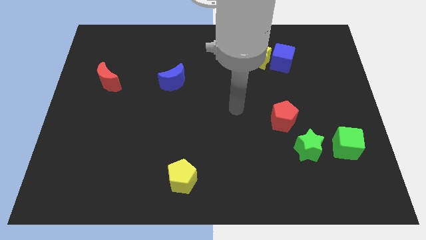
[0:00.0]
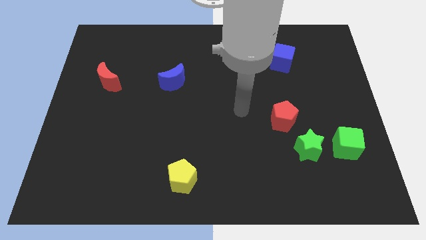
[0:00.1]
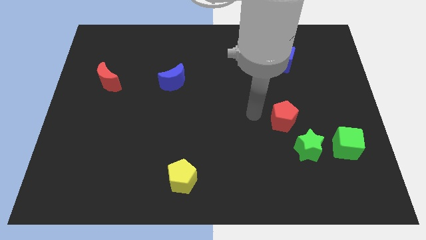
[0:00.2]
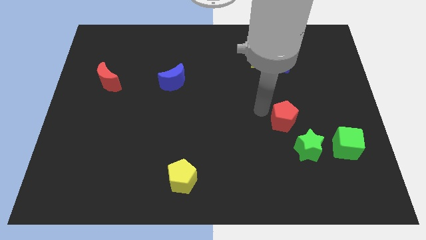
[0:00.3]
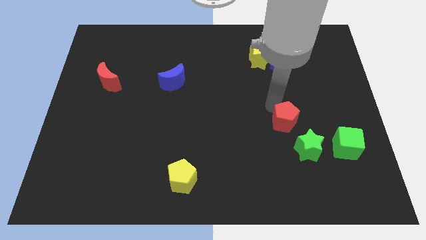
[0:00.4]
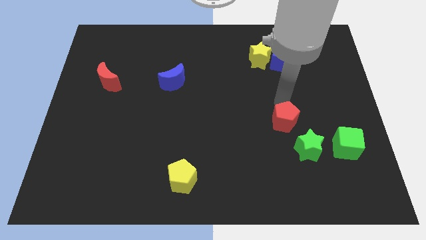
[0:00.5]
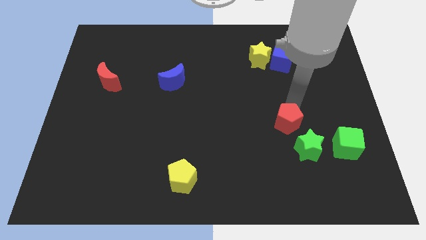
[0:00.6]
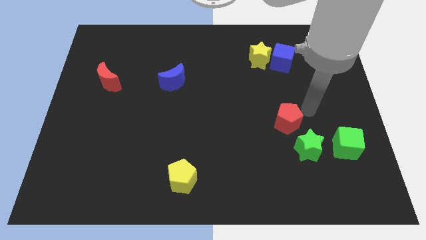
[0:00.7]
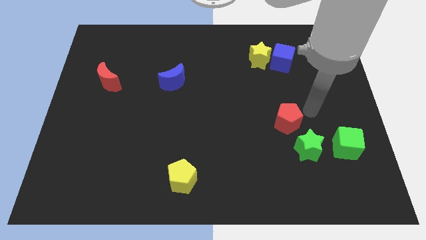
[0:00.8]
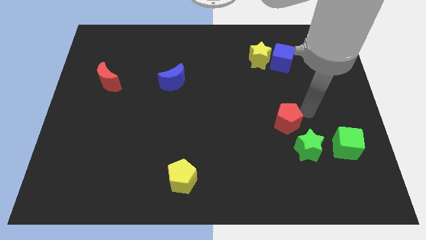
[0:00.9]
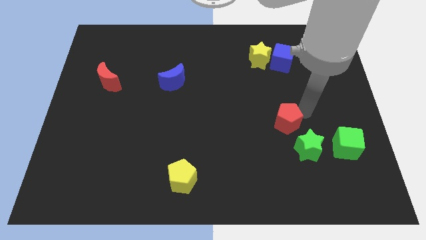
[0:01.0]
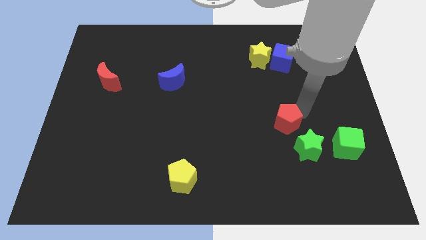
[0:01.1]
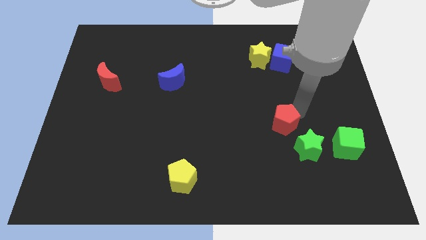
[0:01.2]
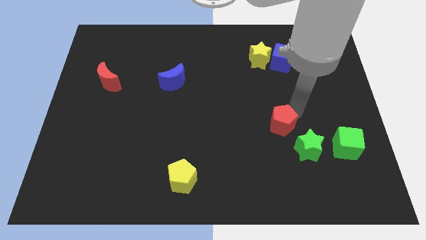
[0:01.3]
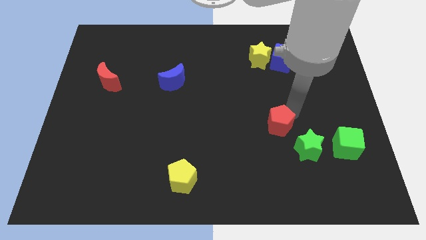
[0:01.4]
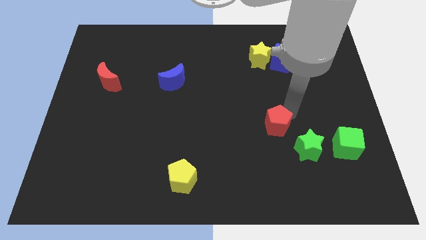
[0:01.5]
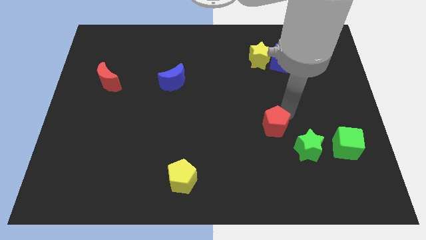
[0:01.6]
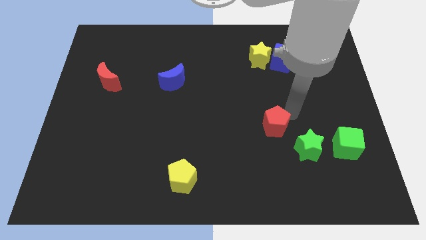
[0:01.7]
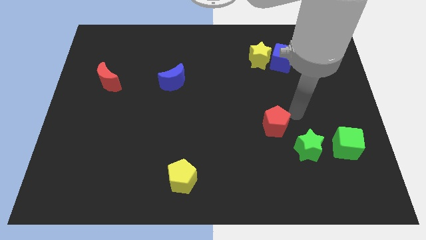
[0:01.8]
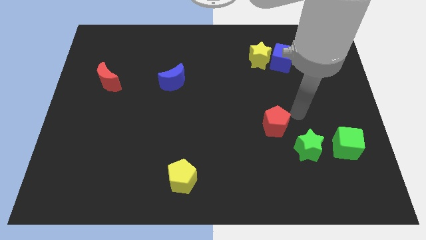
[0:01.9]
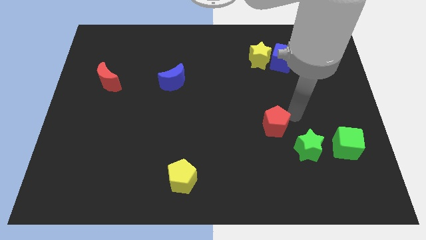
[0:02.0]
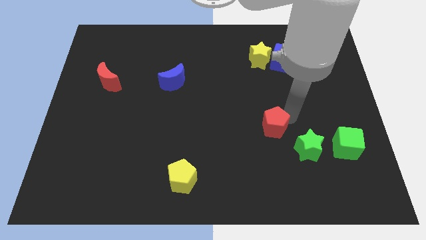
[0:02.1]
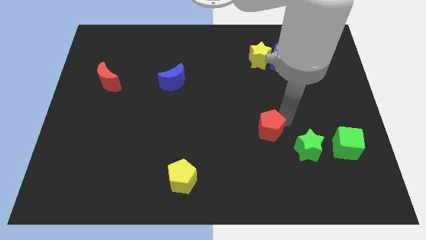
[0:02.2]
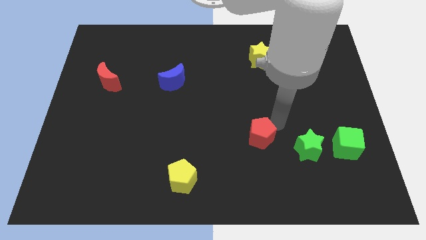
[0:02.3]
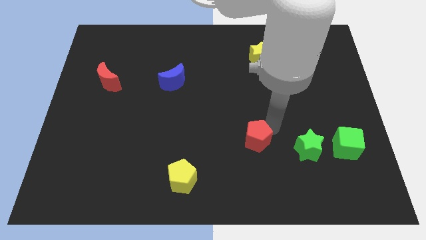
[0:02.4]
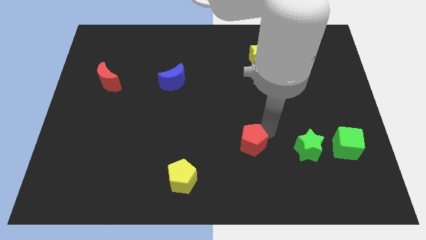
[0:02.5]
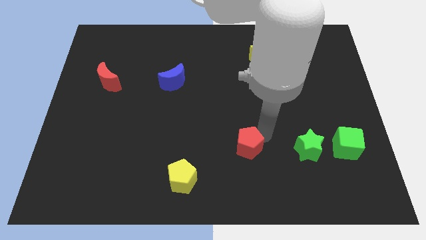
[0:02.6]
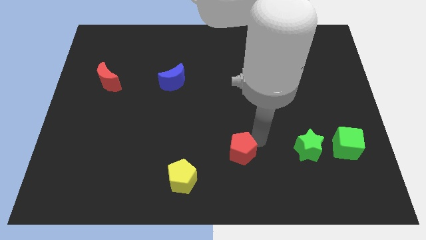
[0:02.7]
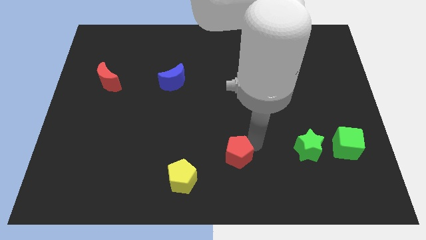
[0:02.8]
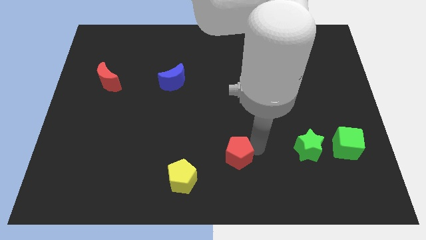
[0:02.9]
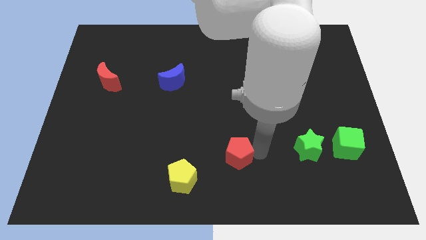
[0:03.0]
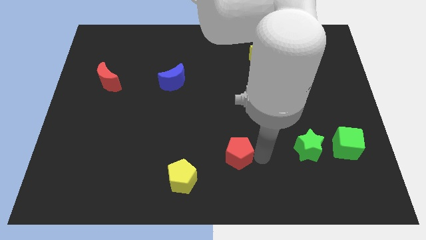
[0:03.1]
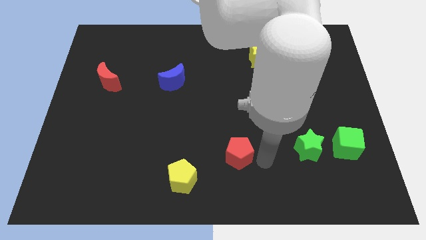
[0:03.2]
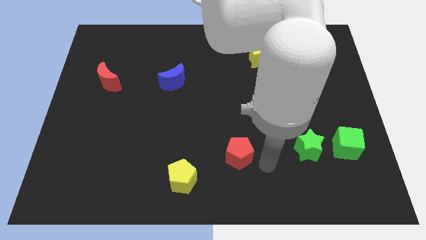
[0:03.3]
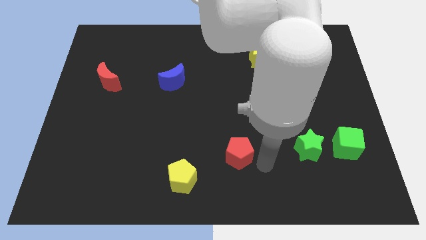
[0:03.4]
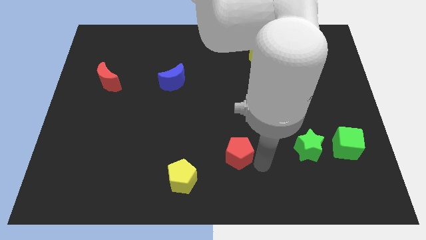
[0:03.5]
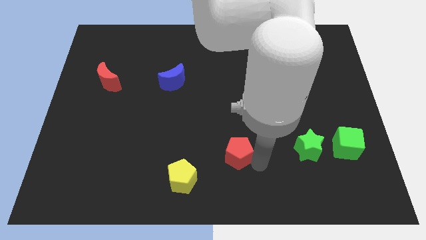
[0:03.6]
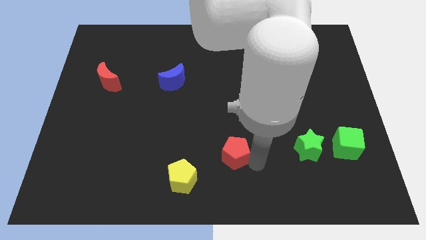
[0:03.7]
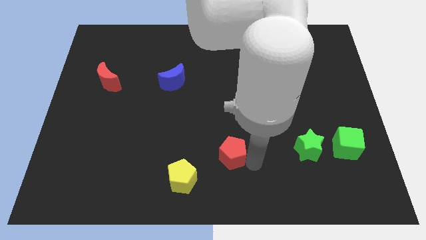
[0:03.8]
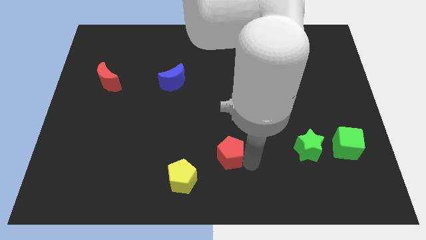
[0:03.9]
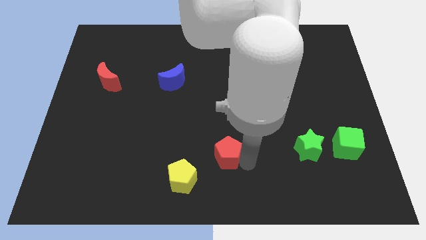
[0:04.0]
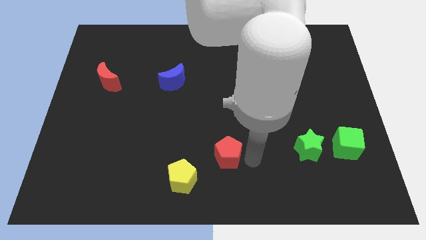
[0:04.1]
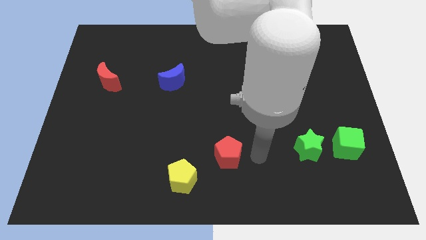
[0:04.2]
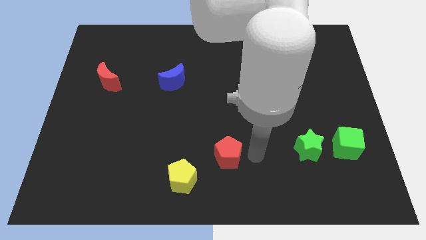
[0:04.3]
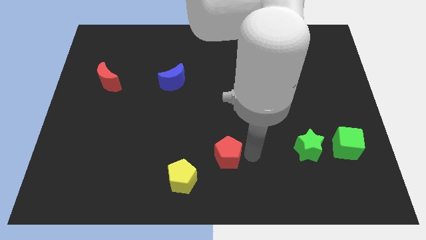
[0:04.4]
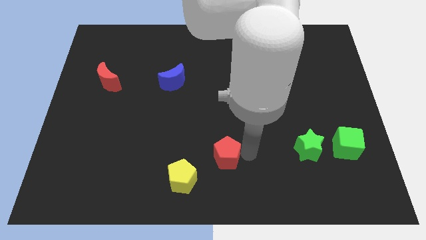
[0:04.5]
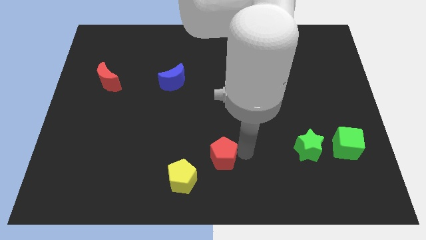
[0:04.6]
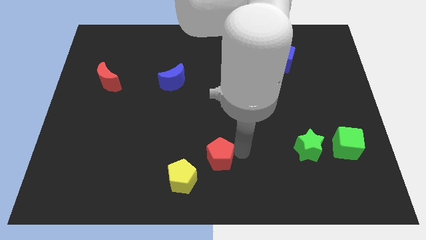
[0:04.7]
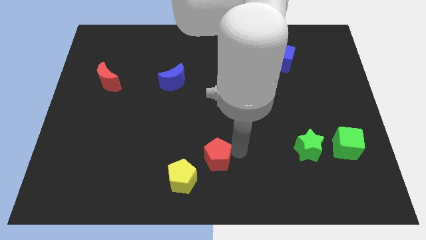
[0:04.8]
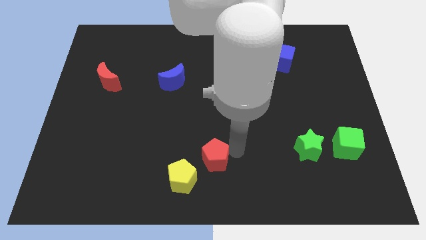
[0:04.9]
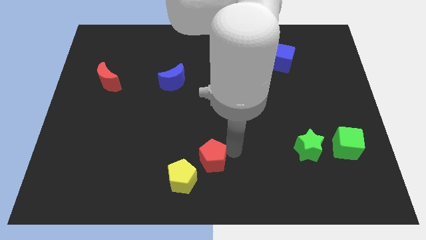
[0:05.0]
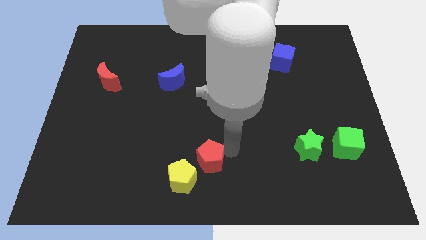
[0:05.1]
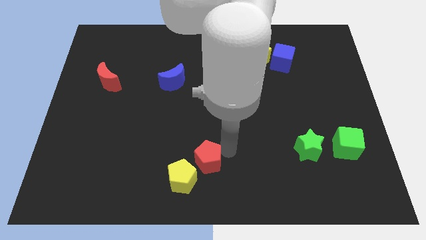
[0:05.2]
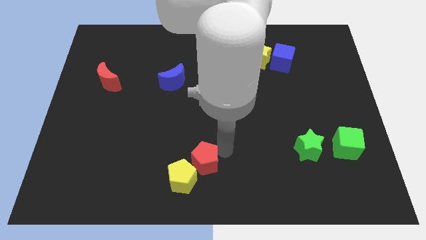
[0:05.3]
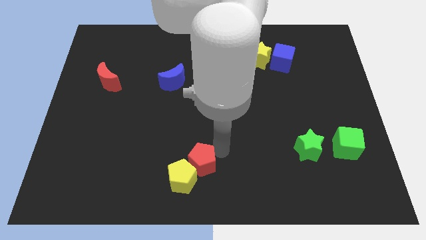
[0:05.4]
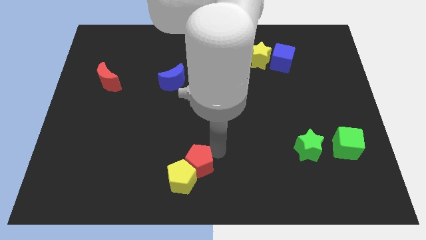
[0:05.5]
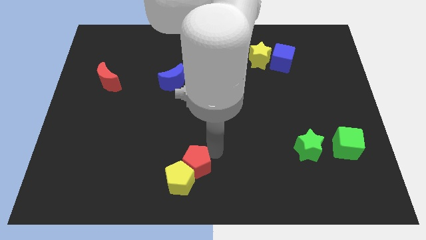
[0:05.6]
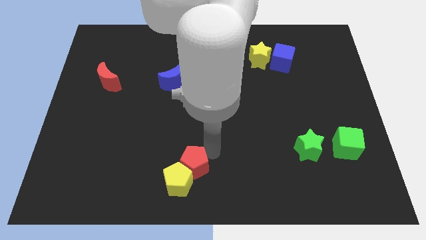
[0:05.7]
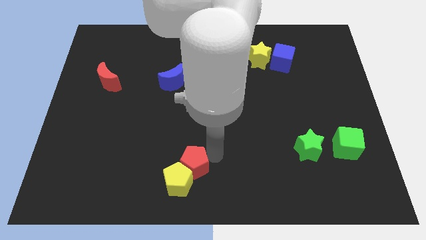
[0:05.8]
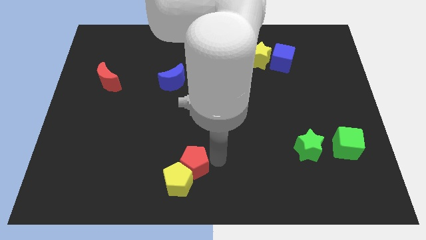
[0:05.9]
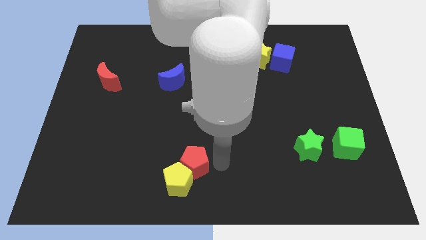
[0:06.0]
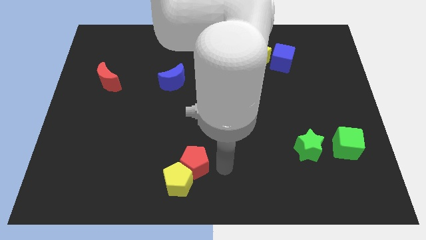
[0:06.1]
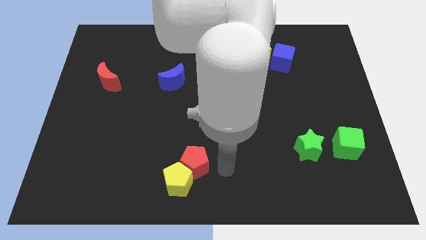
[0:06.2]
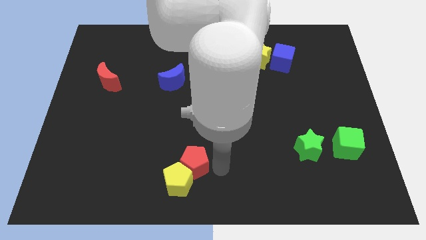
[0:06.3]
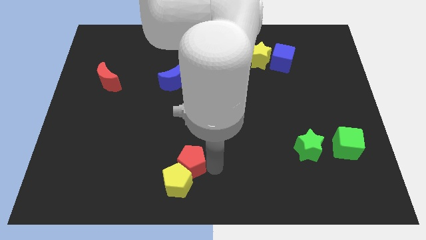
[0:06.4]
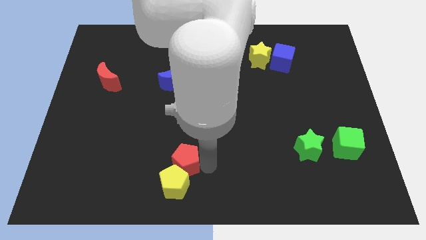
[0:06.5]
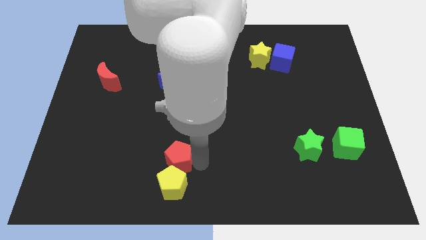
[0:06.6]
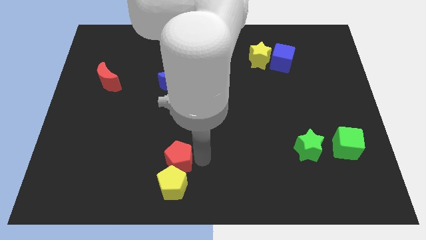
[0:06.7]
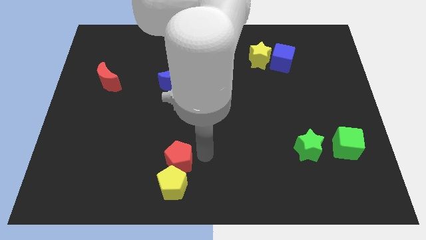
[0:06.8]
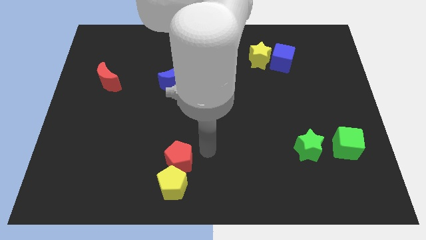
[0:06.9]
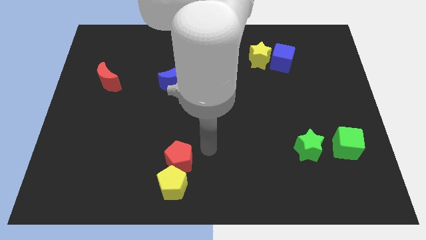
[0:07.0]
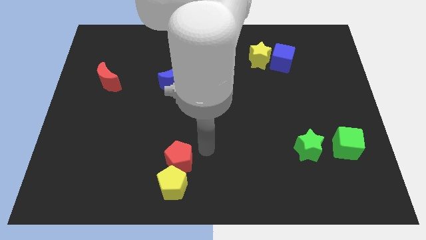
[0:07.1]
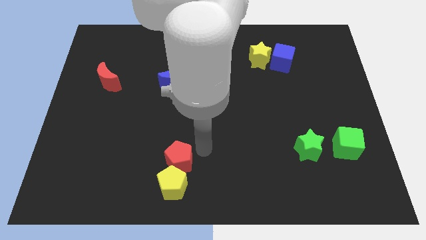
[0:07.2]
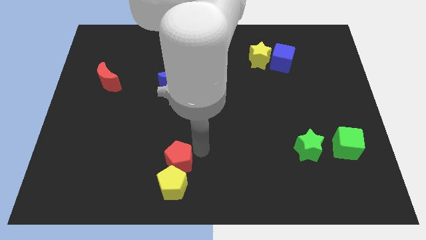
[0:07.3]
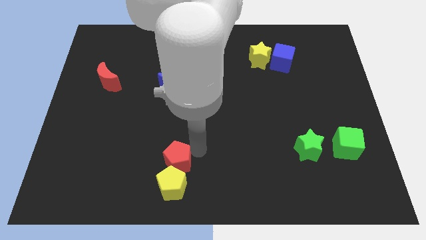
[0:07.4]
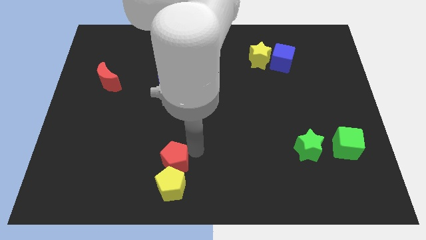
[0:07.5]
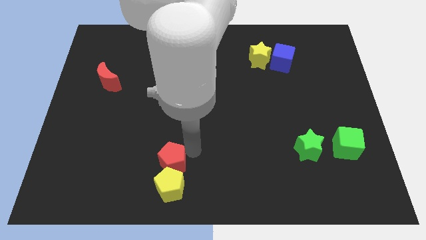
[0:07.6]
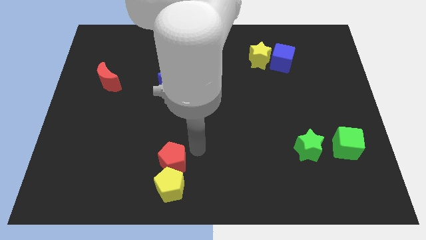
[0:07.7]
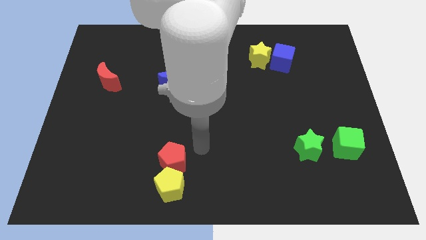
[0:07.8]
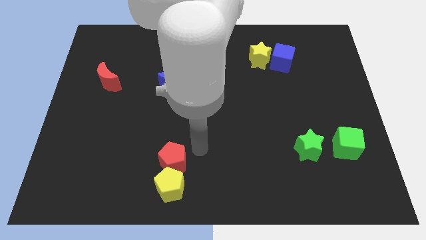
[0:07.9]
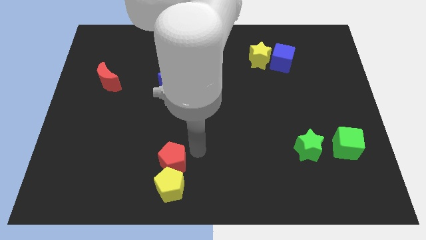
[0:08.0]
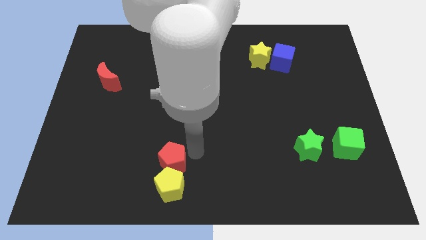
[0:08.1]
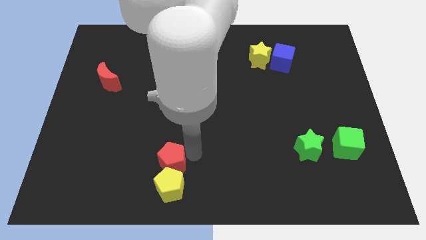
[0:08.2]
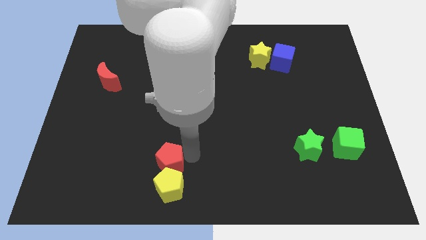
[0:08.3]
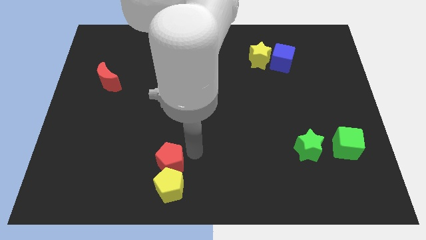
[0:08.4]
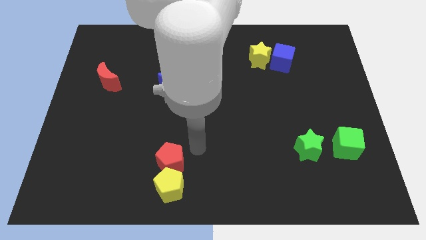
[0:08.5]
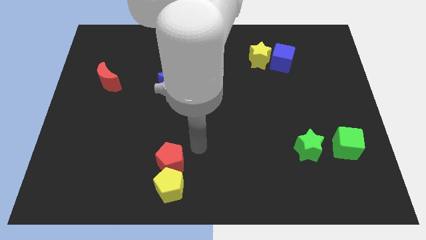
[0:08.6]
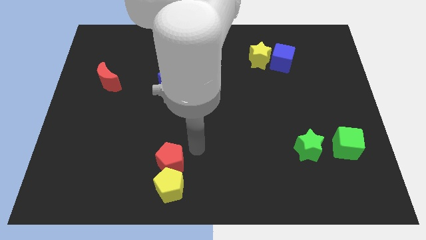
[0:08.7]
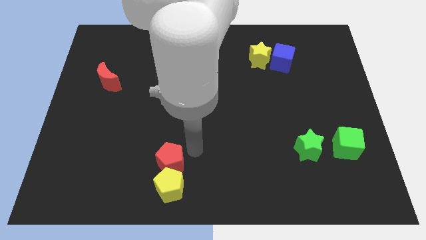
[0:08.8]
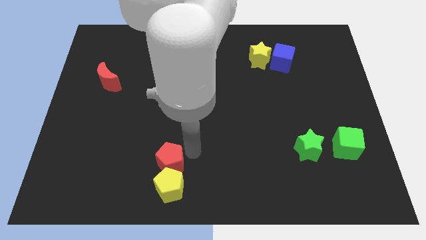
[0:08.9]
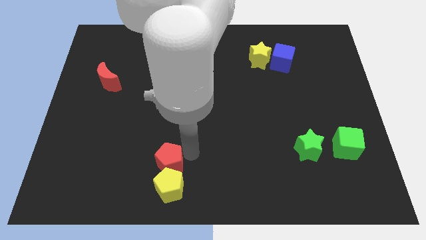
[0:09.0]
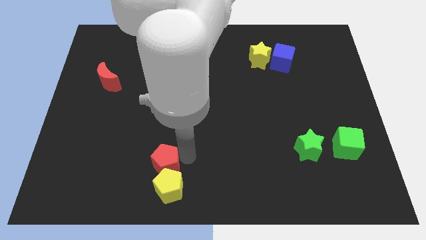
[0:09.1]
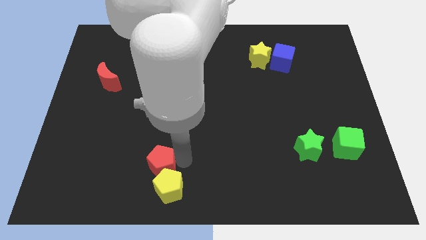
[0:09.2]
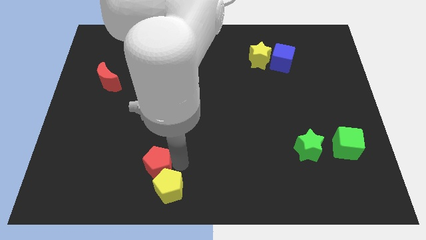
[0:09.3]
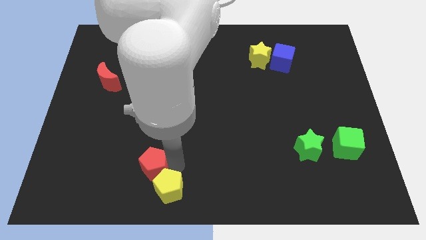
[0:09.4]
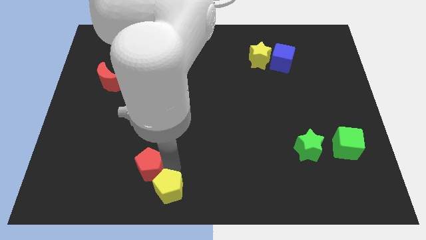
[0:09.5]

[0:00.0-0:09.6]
slide the red pentagon to the left side of the yellow pentagon
